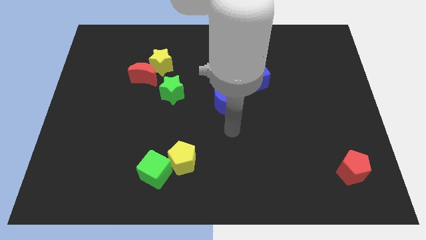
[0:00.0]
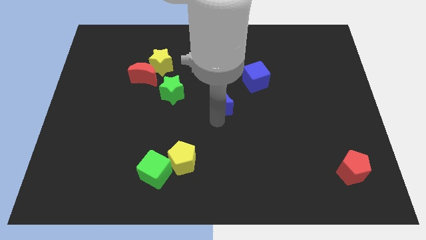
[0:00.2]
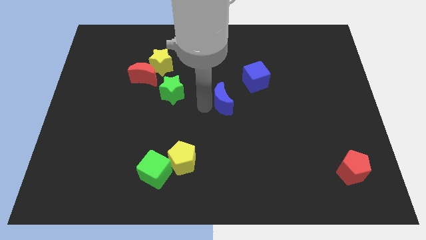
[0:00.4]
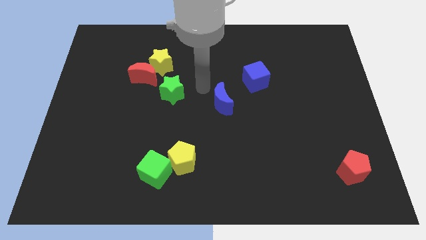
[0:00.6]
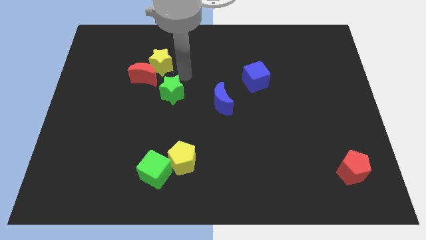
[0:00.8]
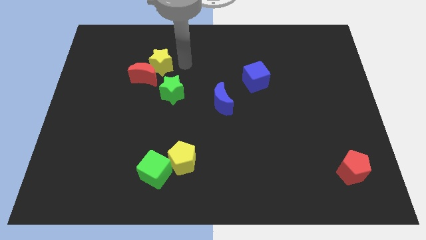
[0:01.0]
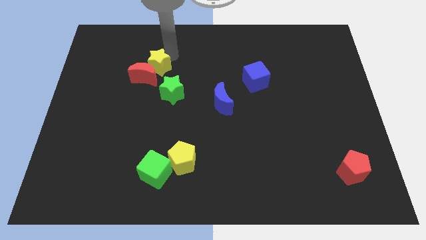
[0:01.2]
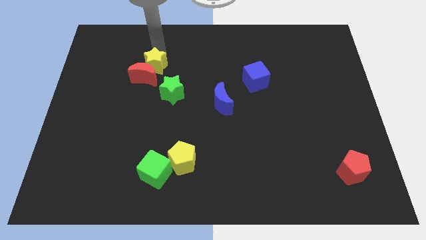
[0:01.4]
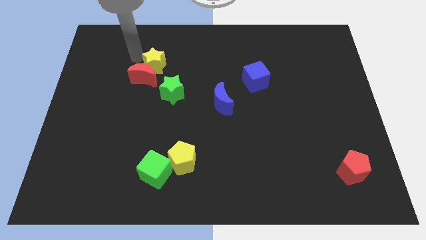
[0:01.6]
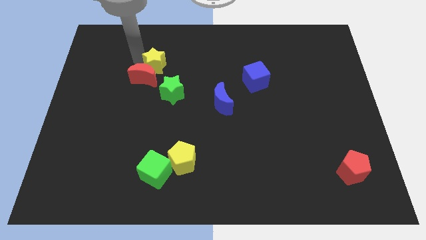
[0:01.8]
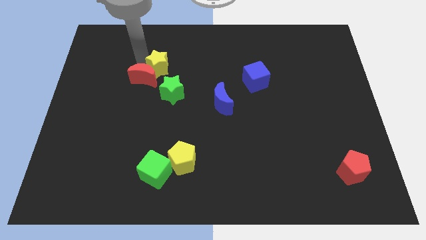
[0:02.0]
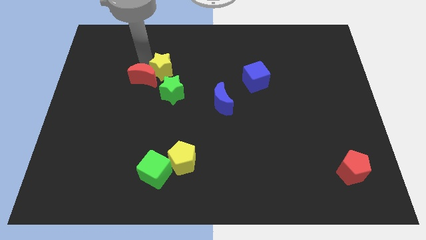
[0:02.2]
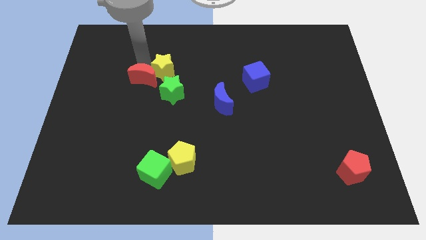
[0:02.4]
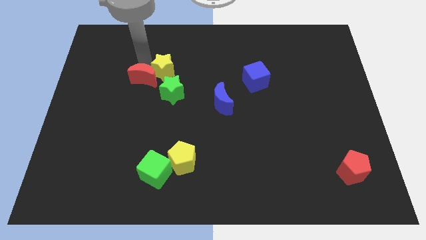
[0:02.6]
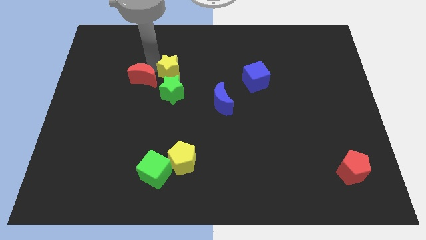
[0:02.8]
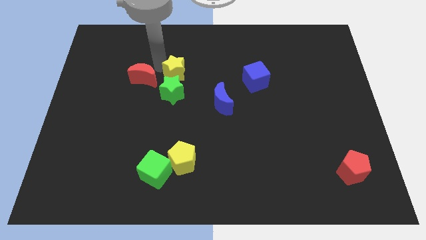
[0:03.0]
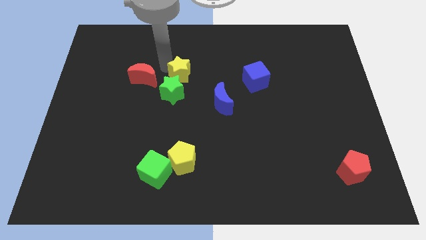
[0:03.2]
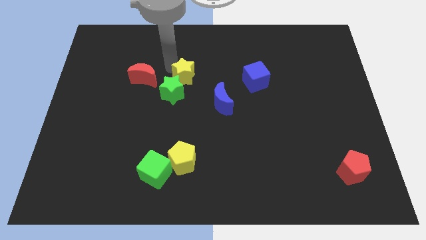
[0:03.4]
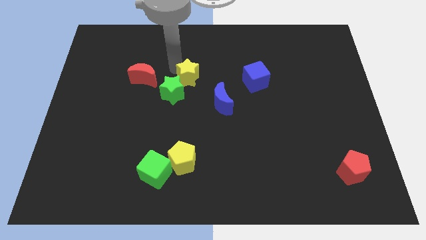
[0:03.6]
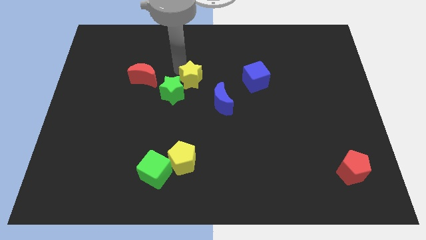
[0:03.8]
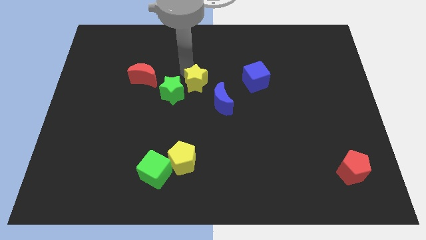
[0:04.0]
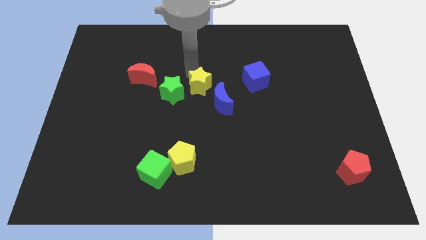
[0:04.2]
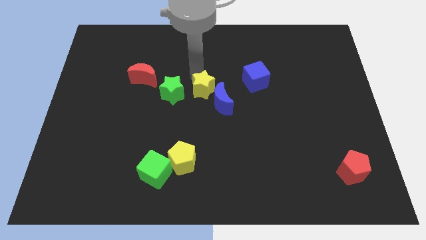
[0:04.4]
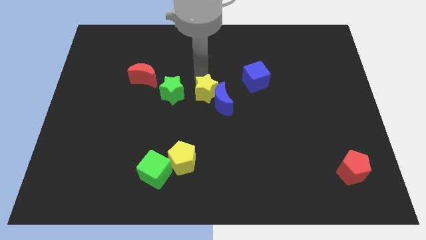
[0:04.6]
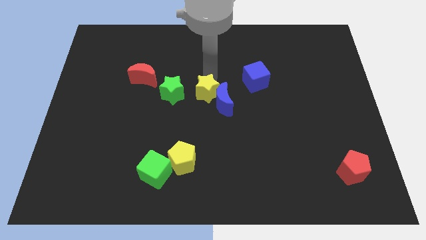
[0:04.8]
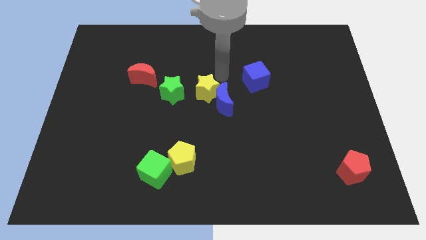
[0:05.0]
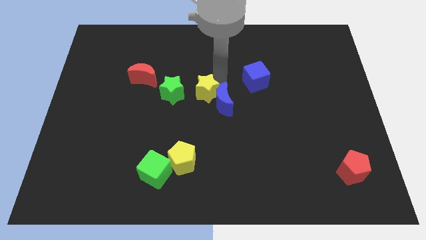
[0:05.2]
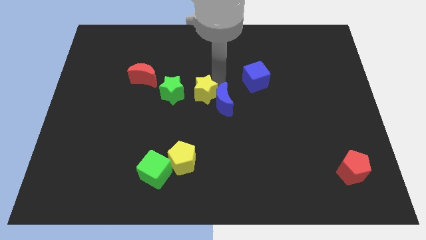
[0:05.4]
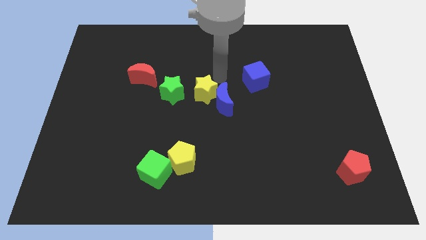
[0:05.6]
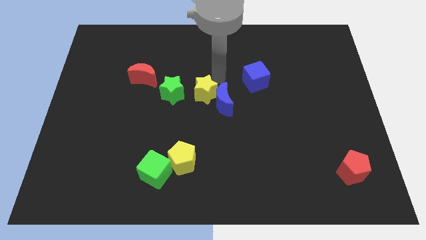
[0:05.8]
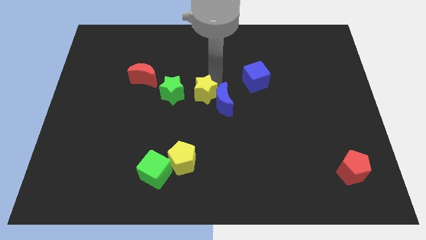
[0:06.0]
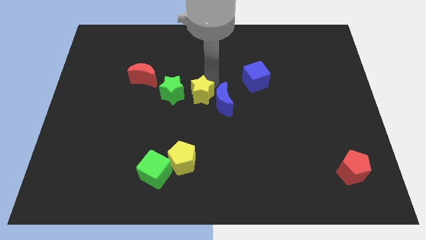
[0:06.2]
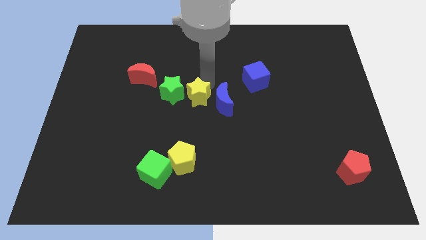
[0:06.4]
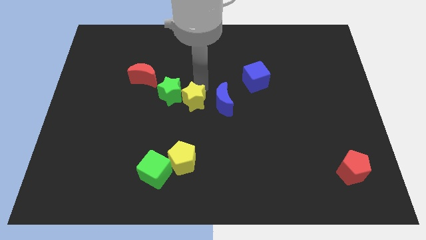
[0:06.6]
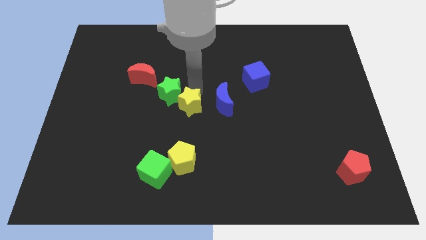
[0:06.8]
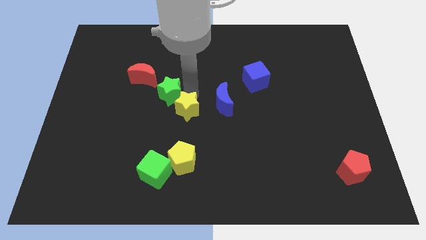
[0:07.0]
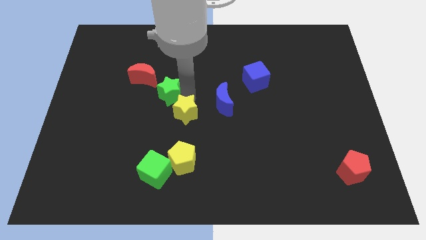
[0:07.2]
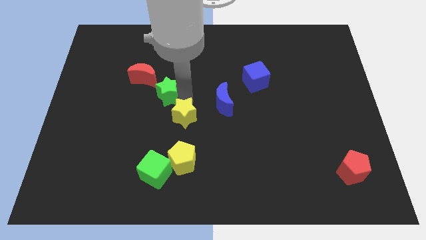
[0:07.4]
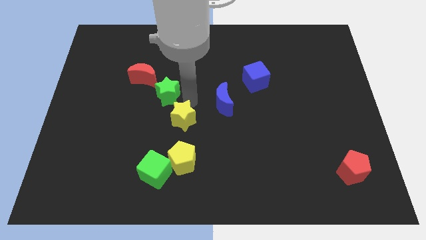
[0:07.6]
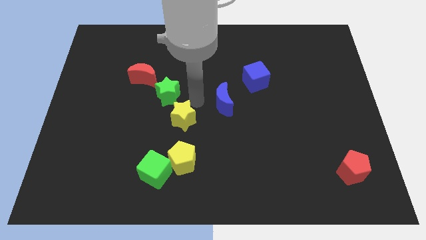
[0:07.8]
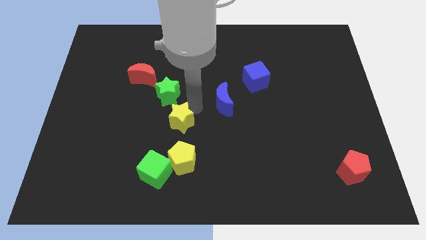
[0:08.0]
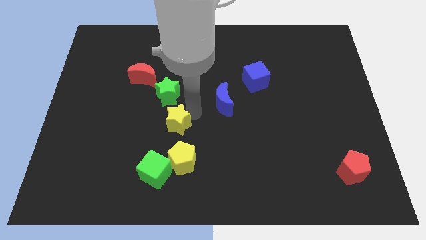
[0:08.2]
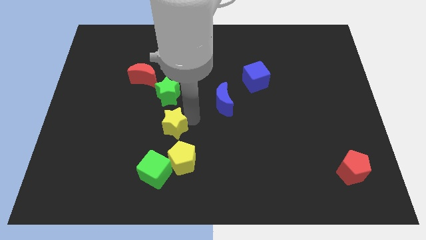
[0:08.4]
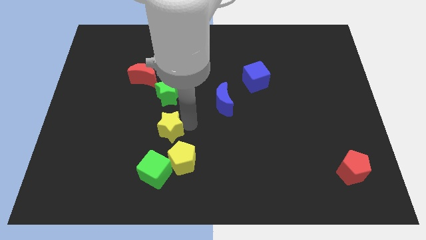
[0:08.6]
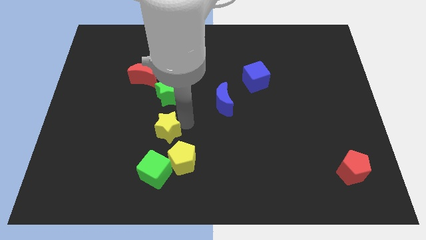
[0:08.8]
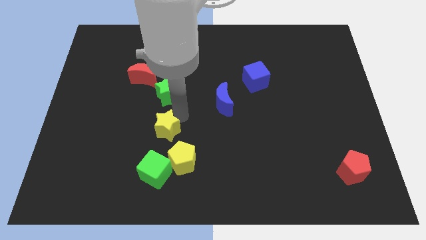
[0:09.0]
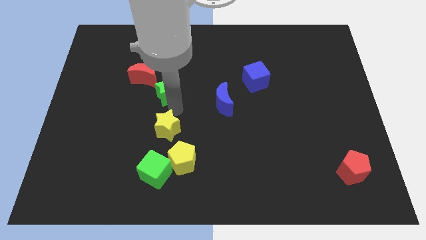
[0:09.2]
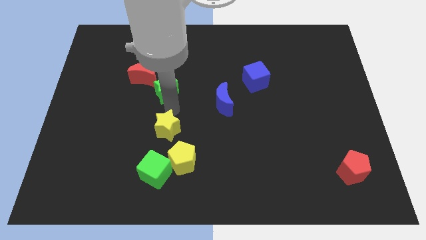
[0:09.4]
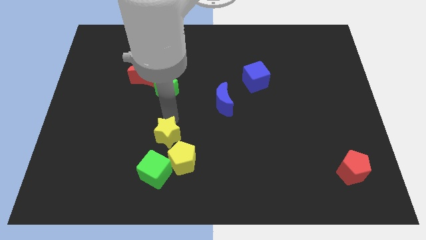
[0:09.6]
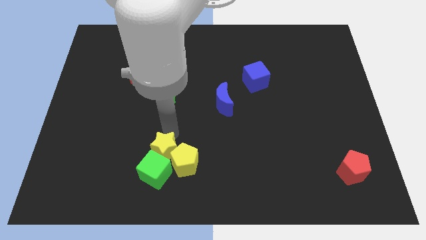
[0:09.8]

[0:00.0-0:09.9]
slide the yellow star towards the green cube

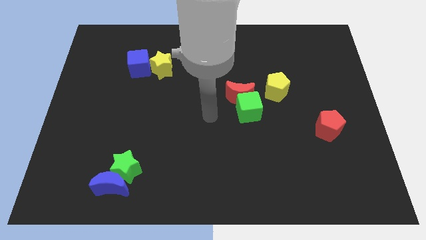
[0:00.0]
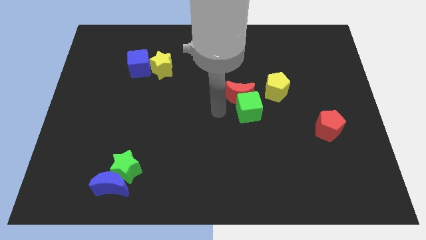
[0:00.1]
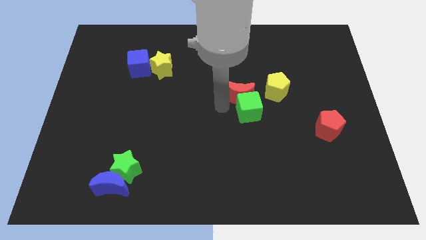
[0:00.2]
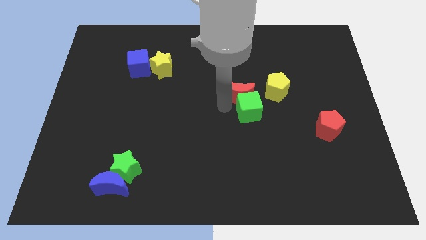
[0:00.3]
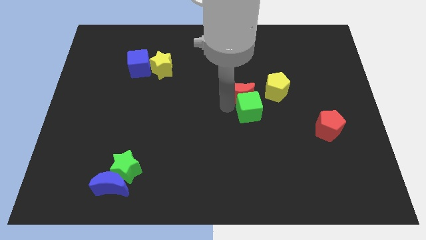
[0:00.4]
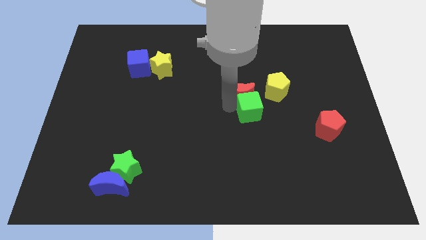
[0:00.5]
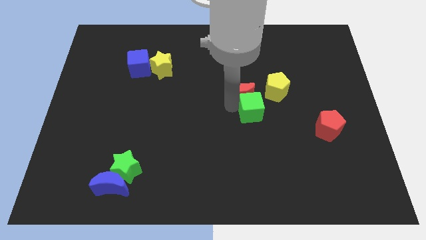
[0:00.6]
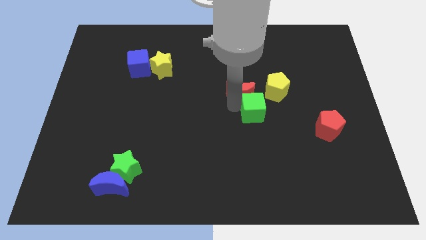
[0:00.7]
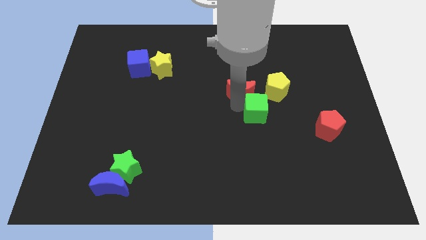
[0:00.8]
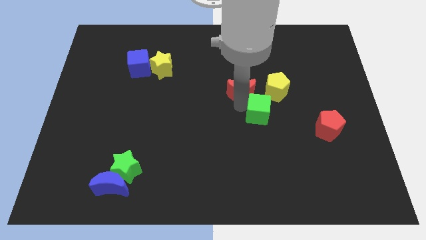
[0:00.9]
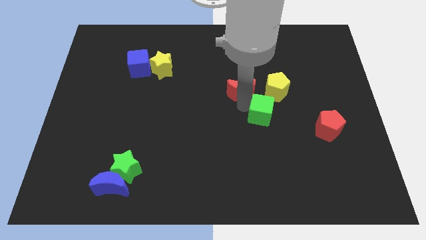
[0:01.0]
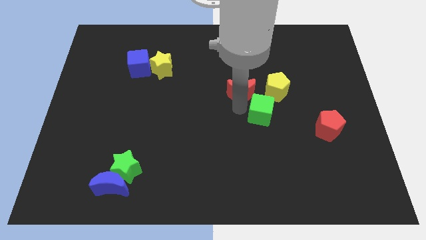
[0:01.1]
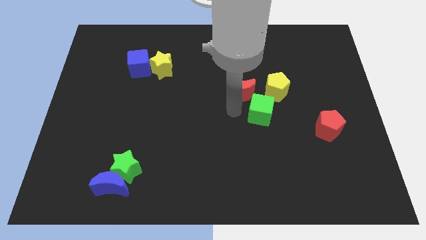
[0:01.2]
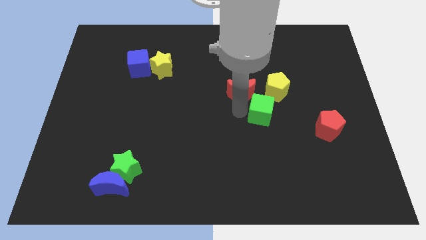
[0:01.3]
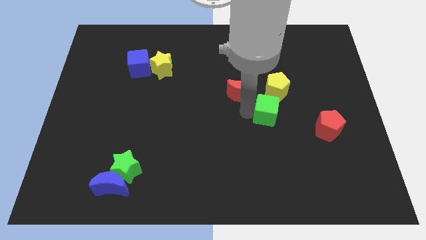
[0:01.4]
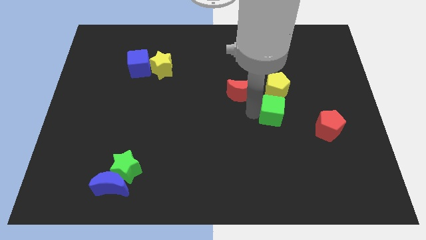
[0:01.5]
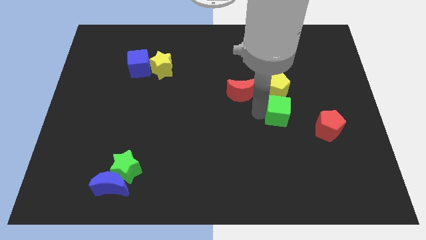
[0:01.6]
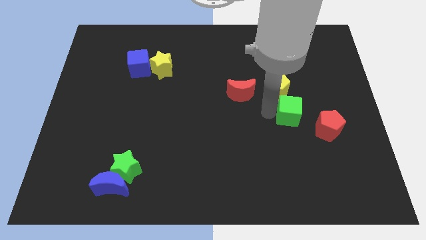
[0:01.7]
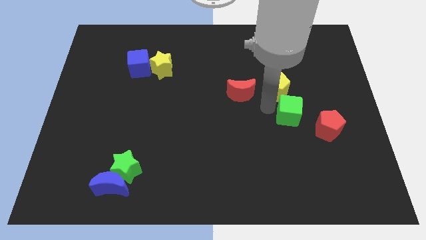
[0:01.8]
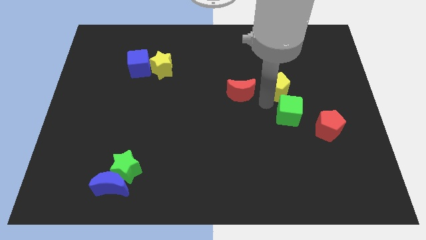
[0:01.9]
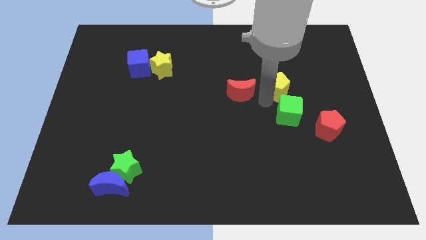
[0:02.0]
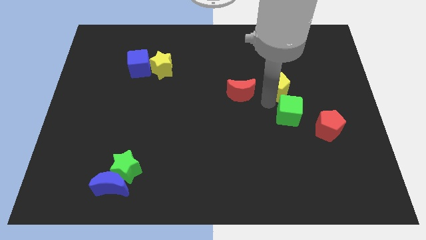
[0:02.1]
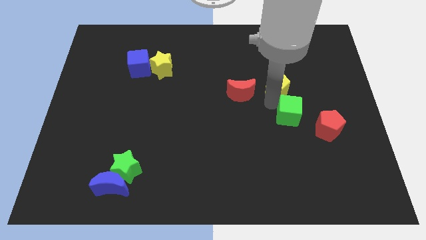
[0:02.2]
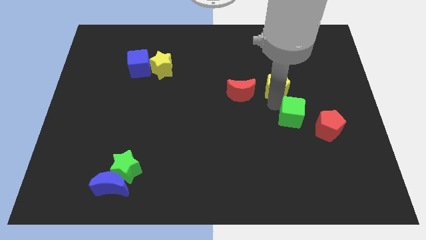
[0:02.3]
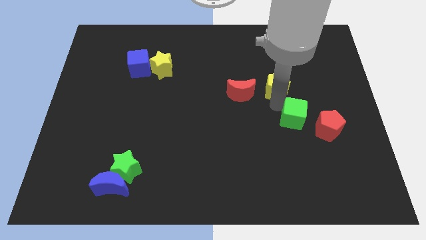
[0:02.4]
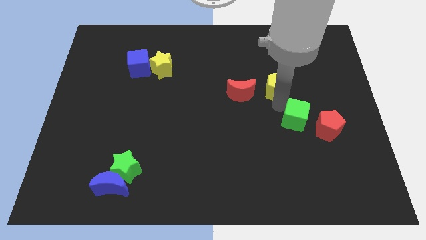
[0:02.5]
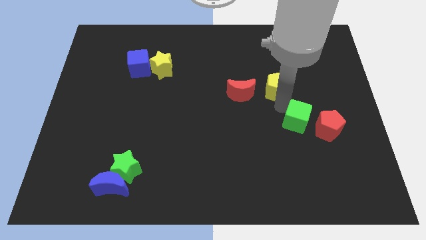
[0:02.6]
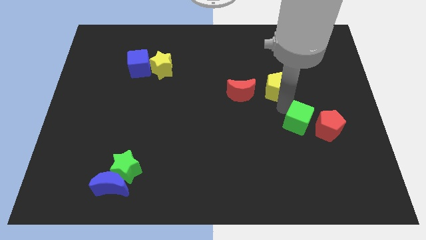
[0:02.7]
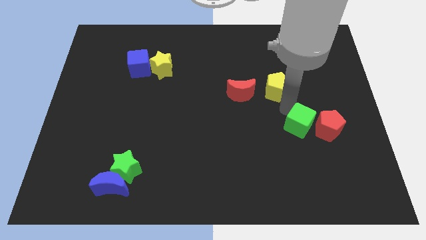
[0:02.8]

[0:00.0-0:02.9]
push the green cube close to the red pentagon
